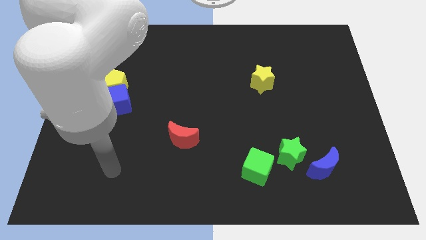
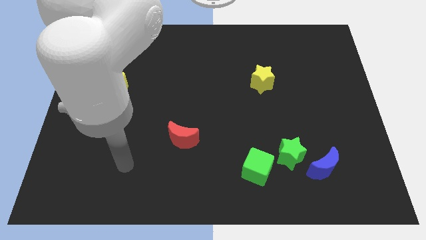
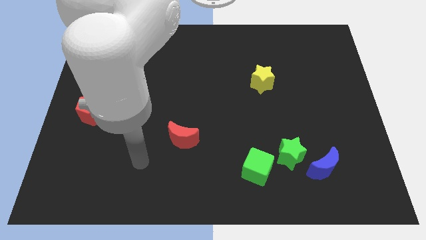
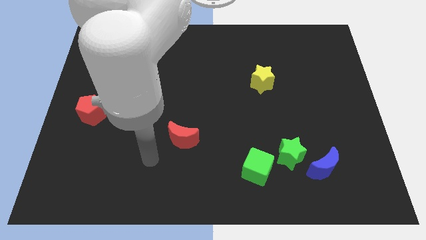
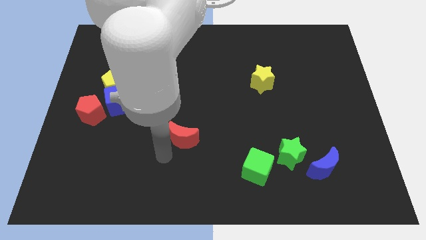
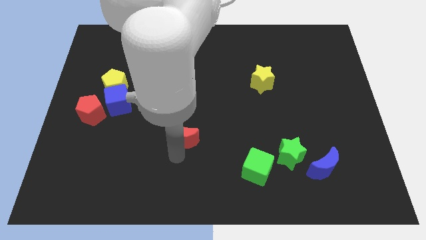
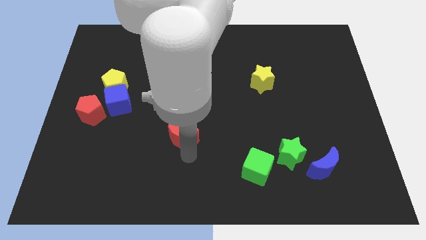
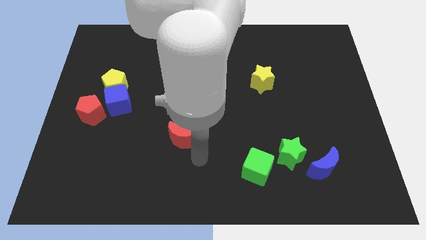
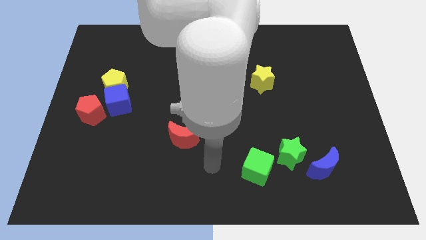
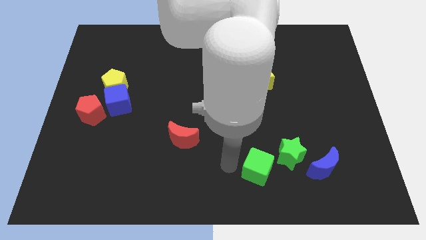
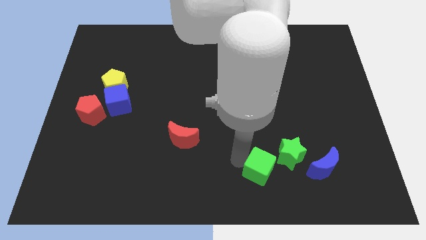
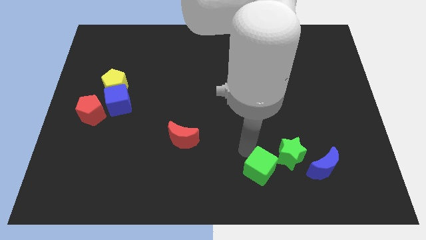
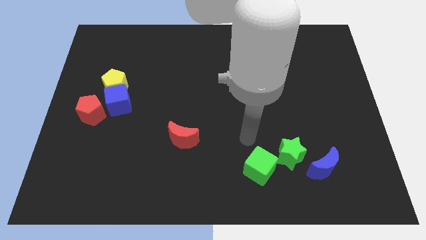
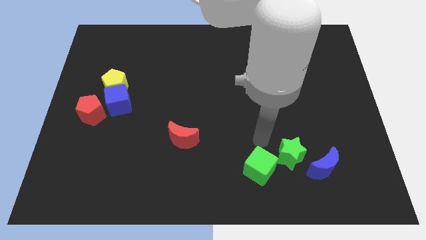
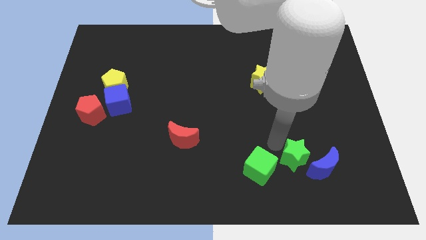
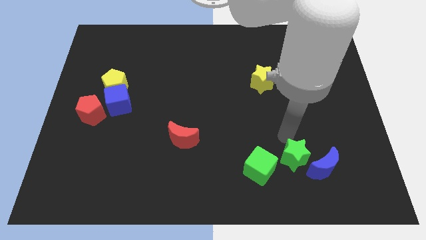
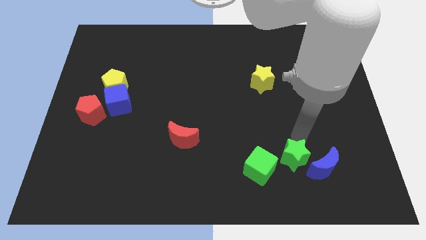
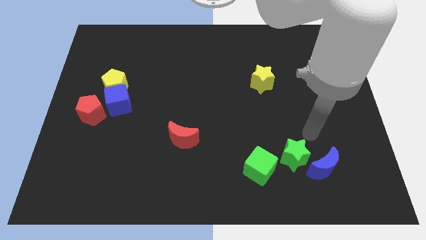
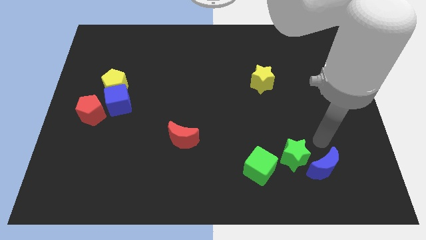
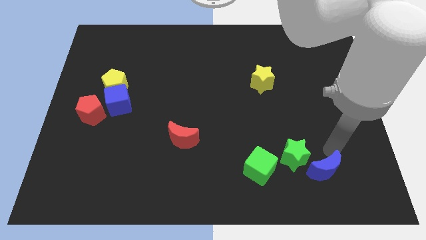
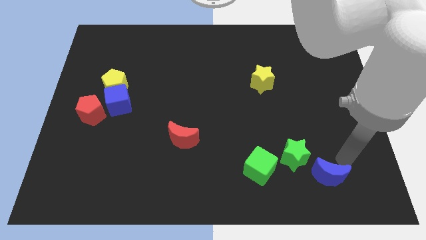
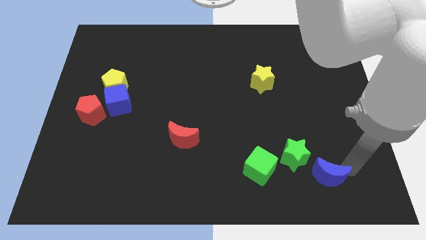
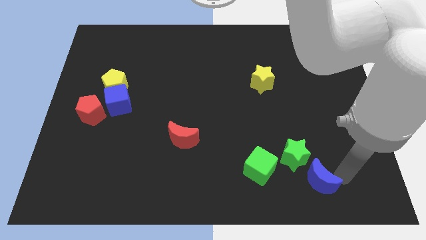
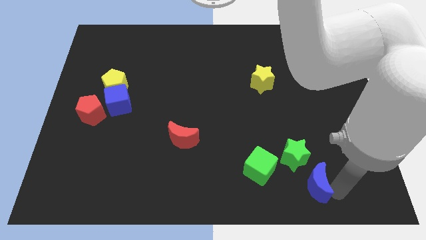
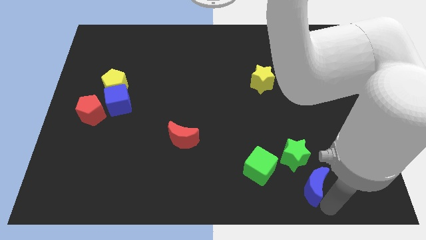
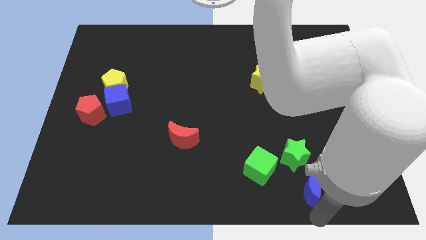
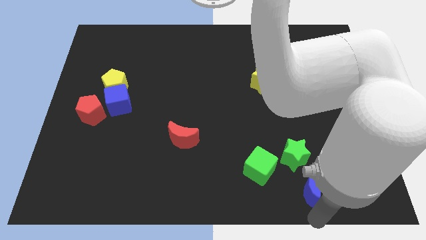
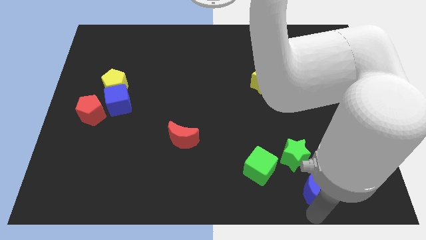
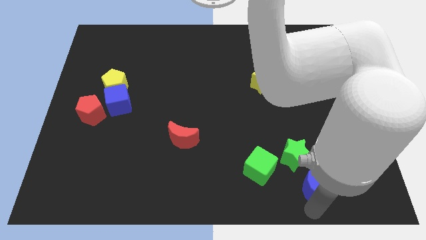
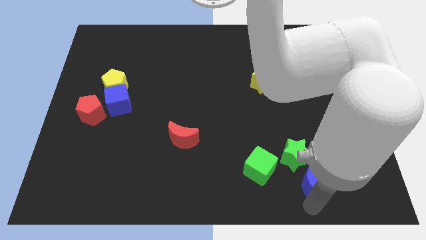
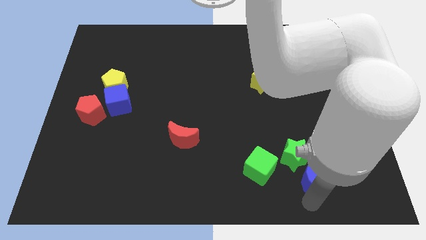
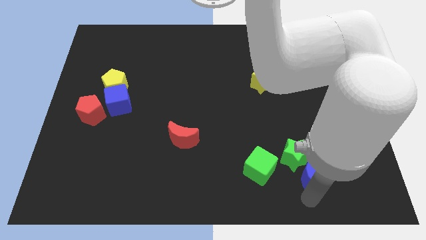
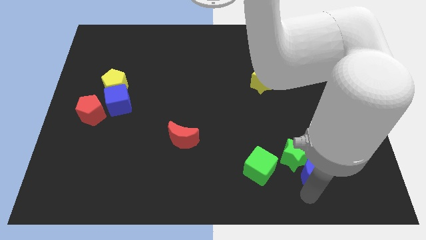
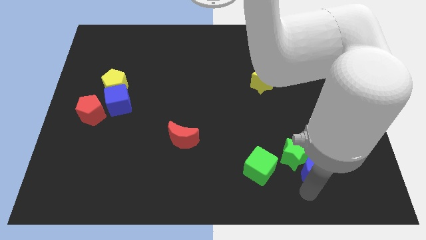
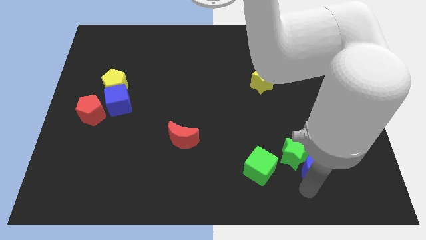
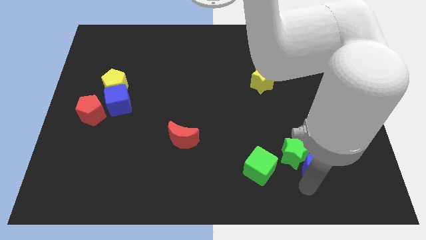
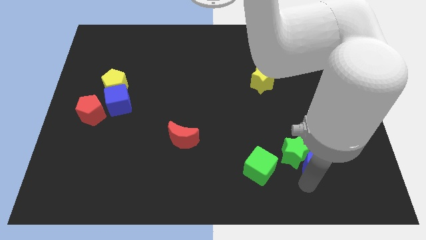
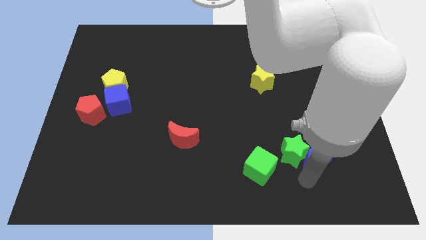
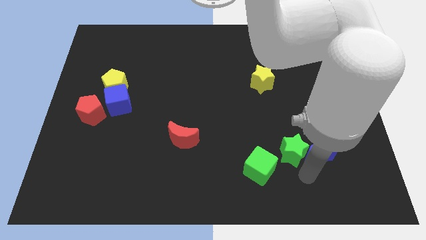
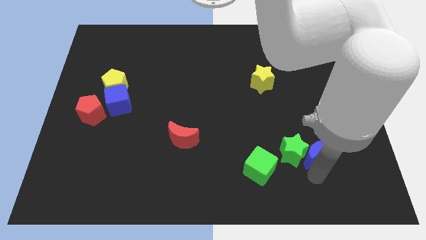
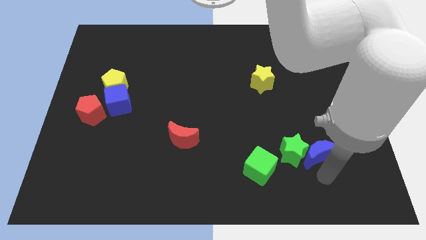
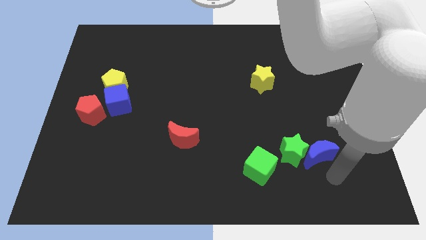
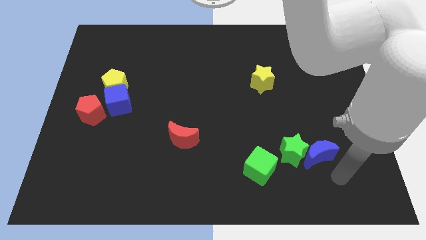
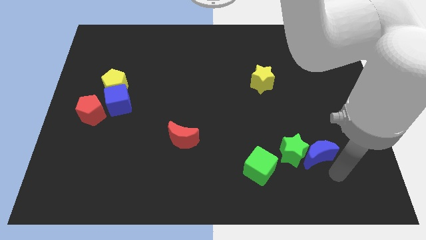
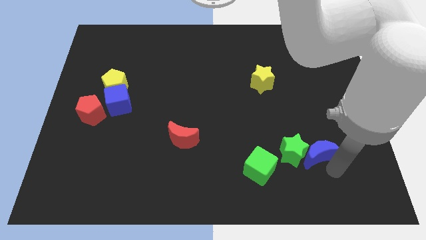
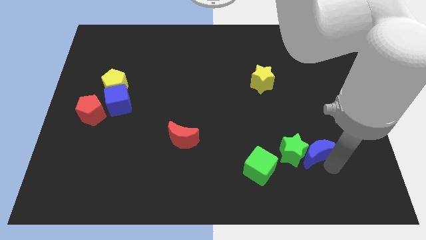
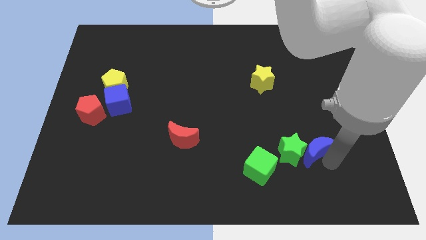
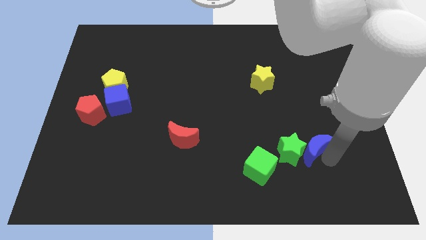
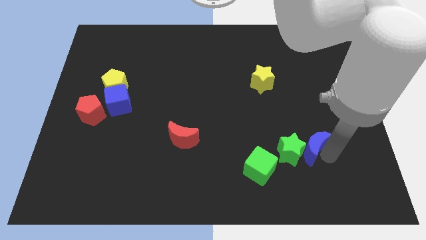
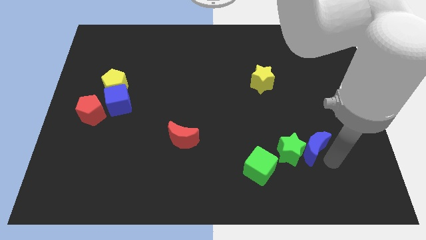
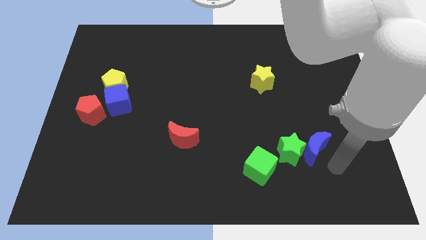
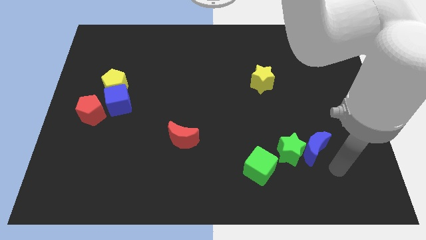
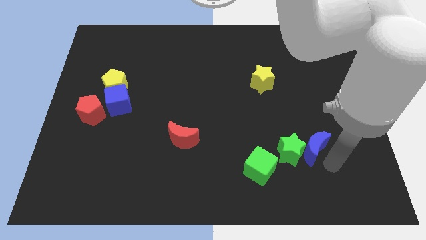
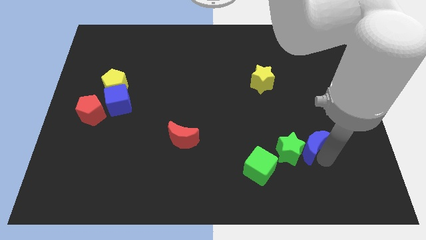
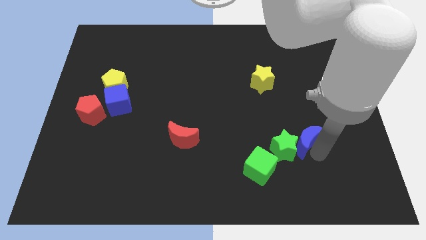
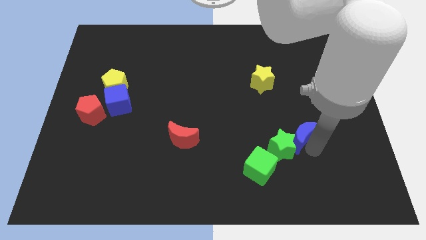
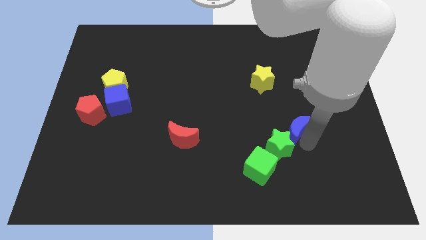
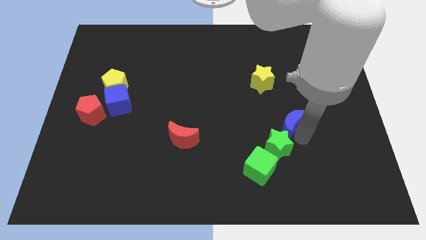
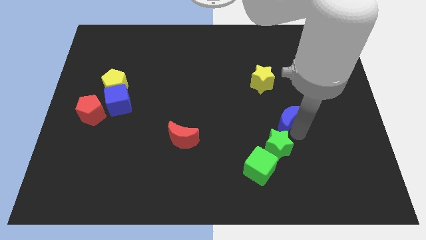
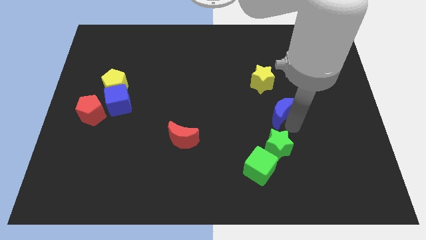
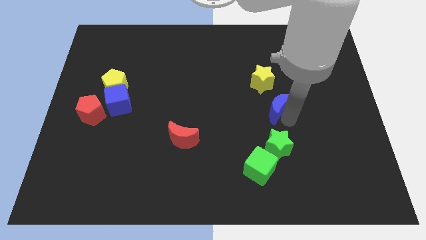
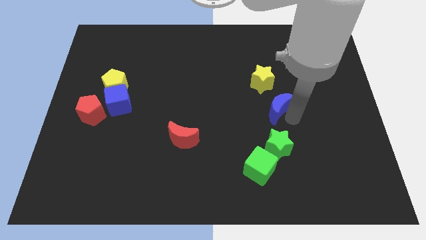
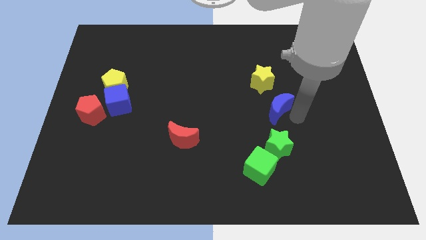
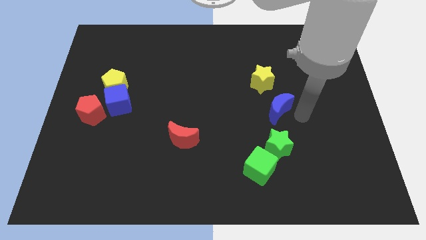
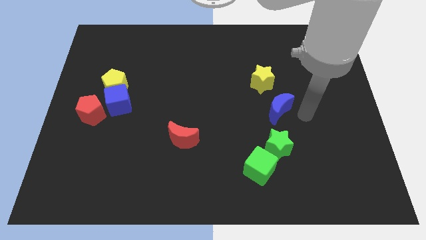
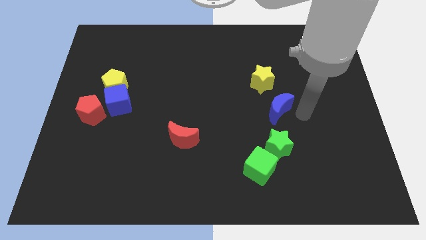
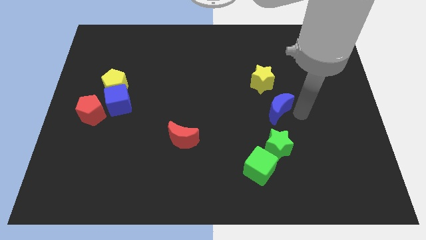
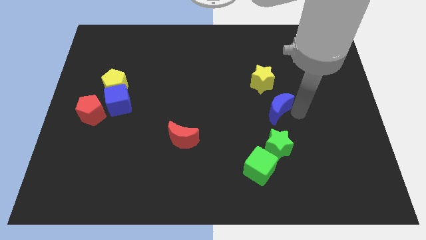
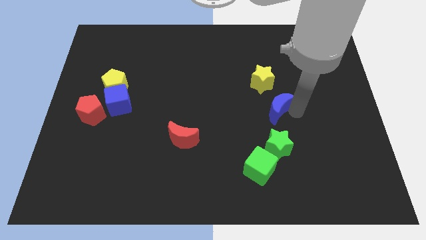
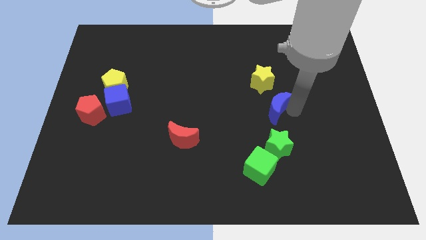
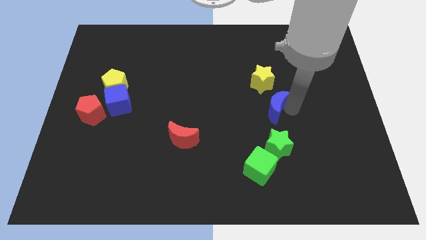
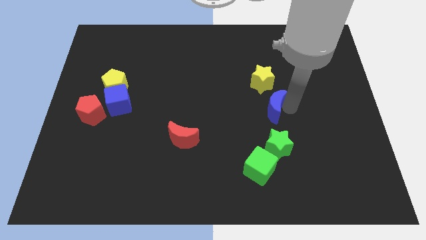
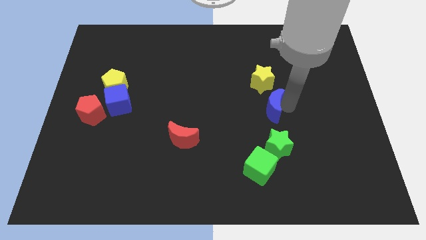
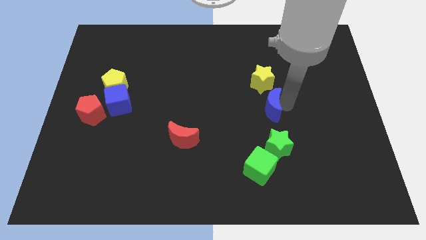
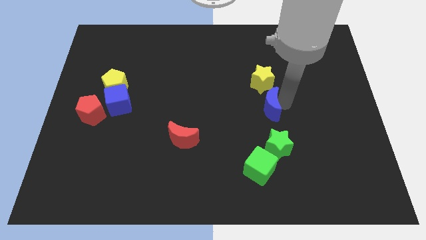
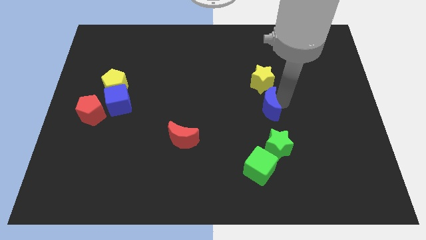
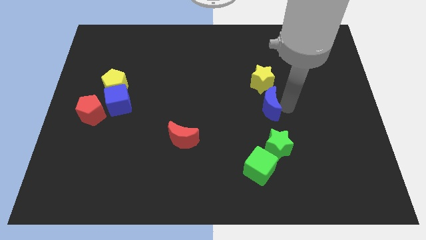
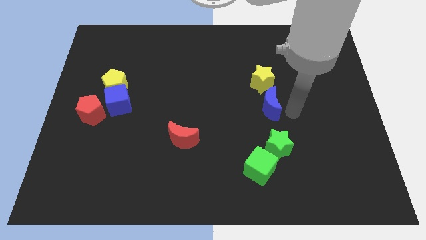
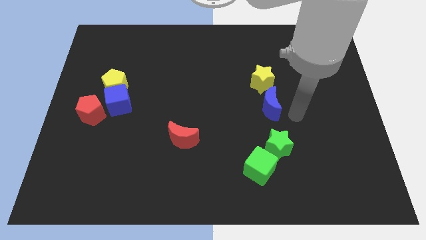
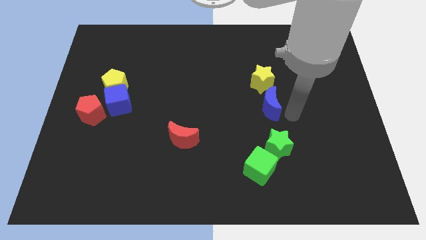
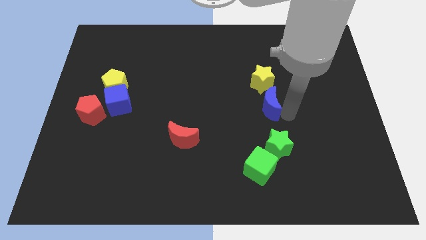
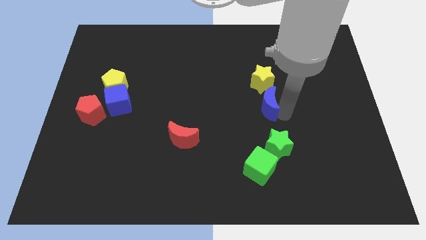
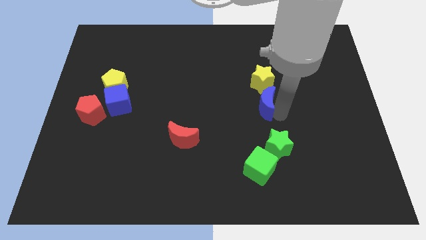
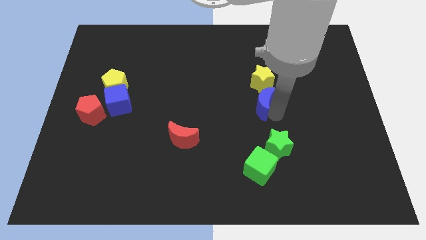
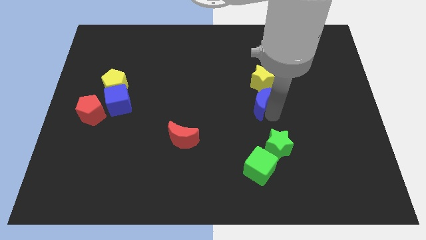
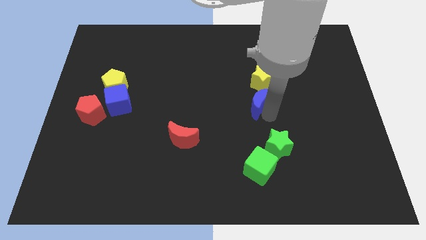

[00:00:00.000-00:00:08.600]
move the blue moon upwards and then to the left
